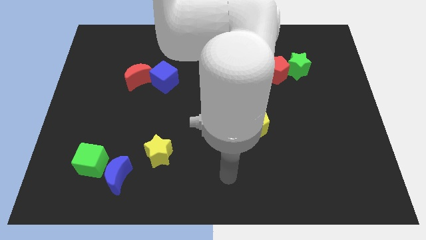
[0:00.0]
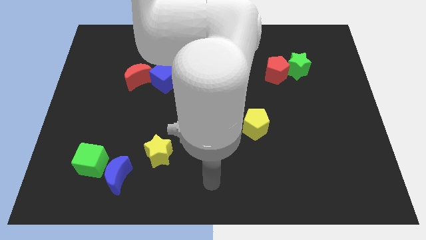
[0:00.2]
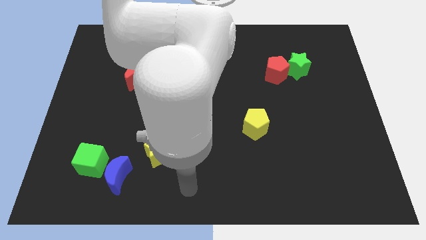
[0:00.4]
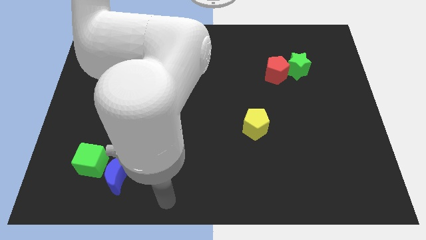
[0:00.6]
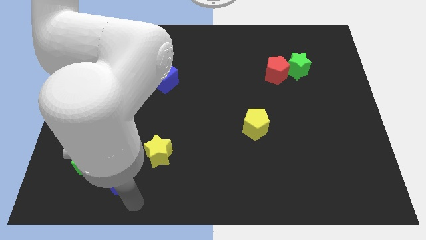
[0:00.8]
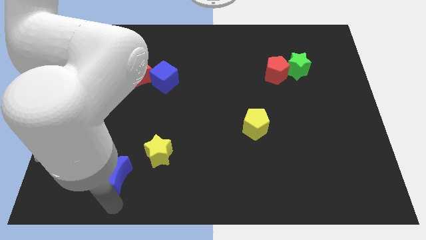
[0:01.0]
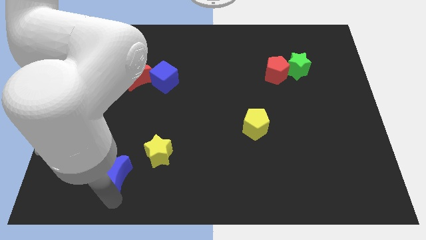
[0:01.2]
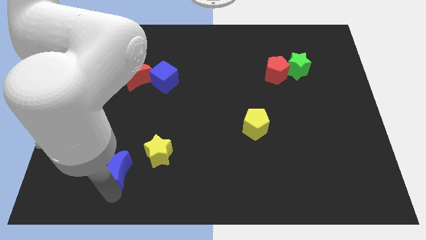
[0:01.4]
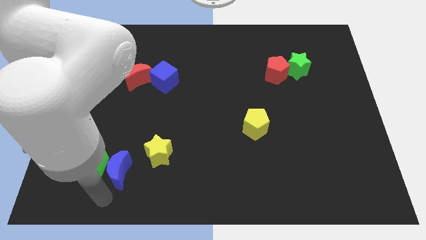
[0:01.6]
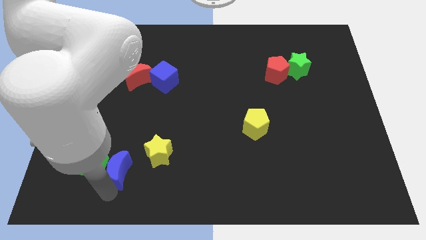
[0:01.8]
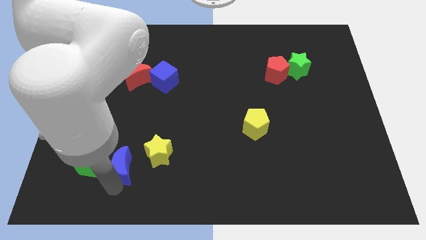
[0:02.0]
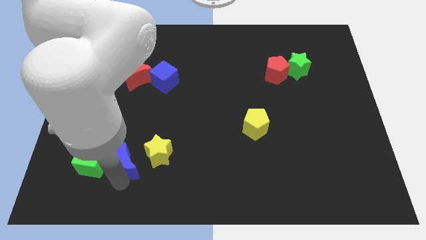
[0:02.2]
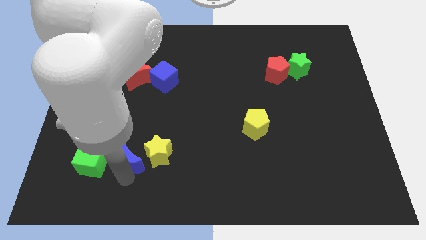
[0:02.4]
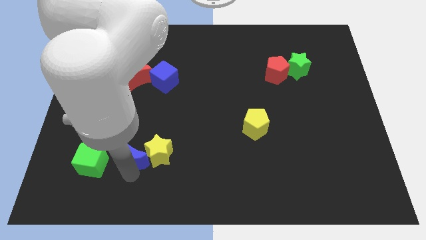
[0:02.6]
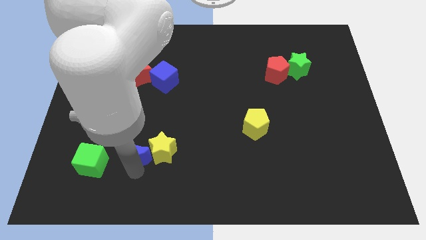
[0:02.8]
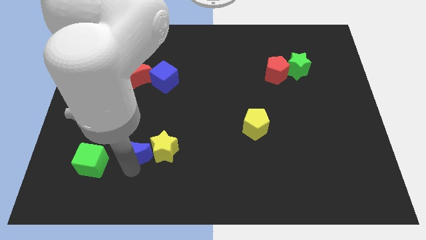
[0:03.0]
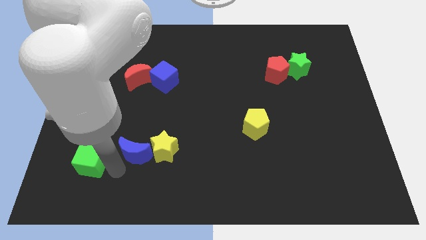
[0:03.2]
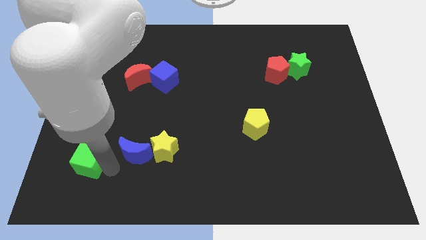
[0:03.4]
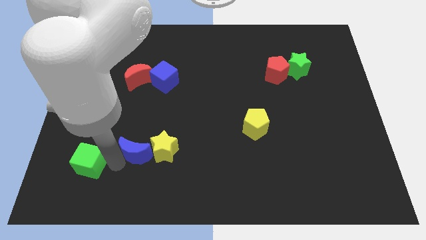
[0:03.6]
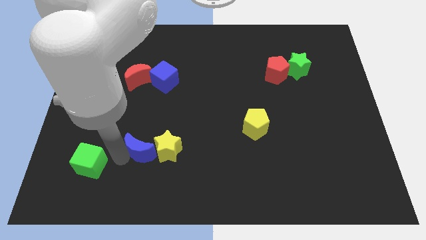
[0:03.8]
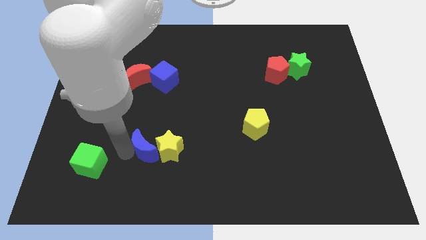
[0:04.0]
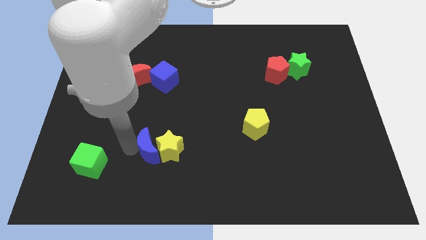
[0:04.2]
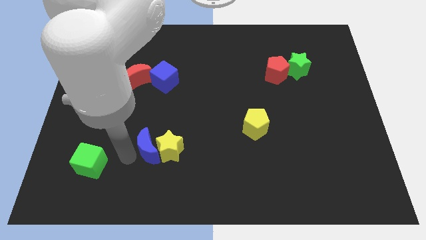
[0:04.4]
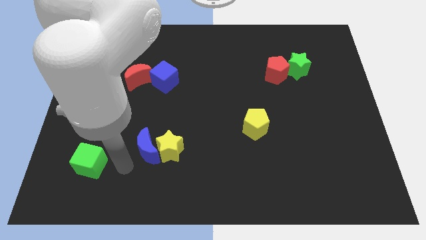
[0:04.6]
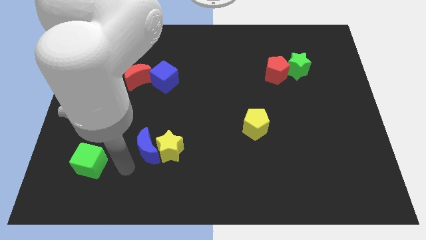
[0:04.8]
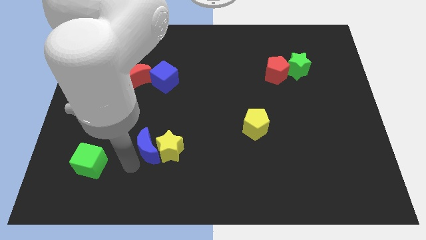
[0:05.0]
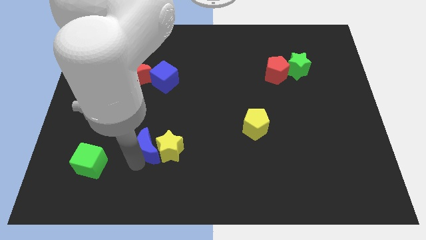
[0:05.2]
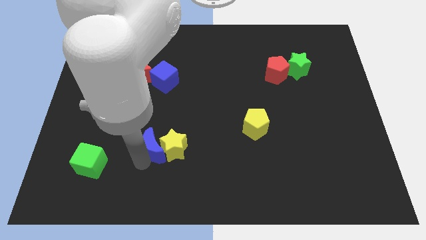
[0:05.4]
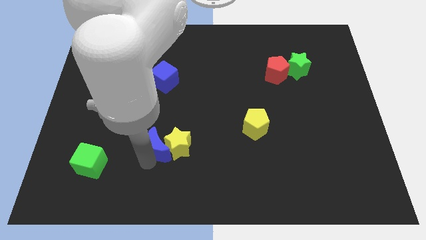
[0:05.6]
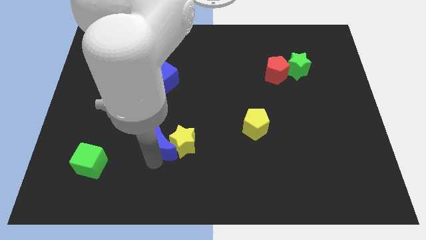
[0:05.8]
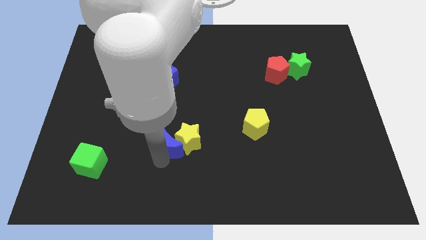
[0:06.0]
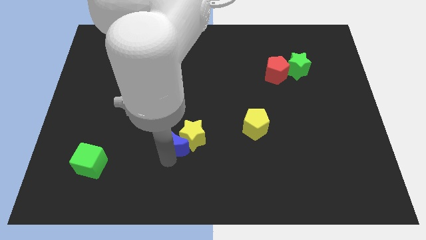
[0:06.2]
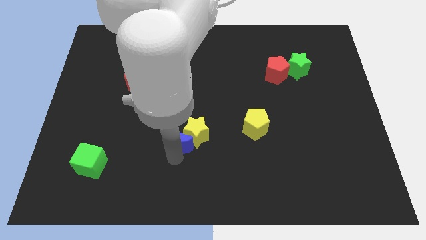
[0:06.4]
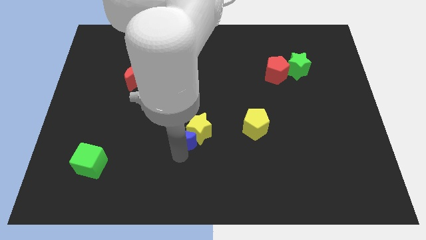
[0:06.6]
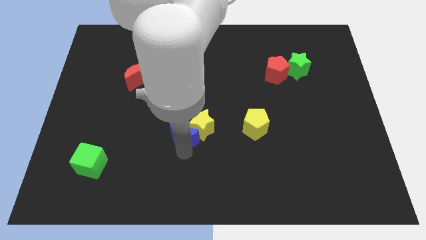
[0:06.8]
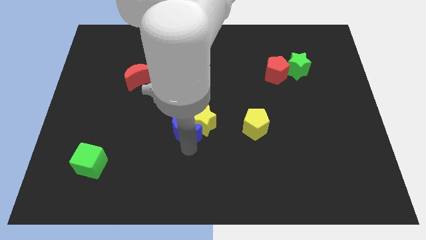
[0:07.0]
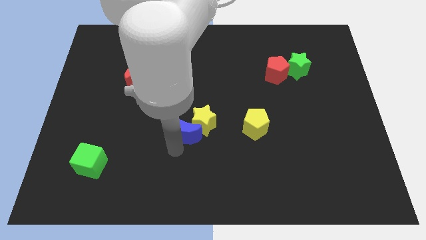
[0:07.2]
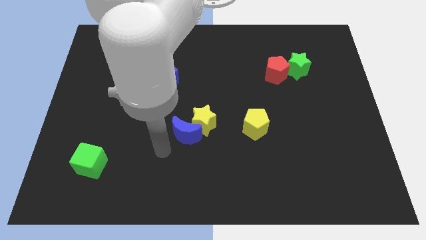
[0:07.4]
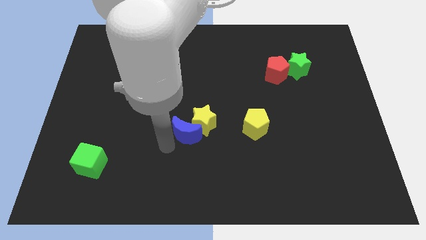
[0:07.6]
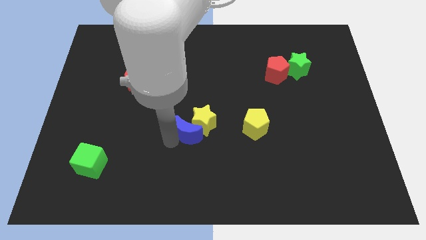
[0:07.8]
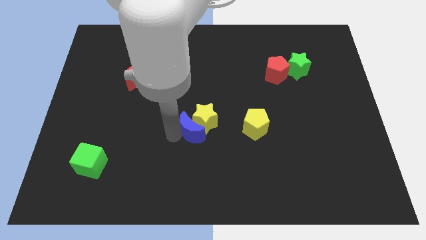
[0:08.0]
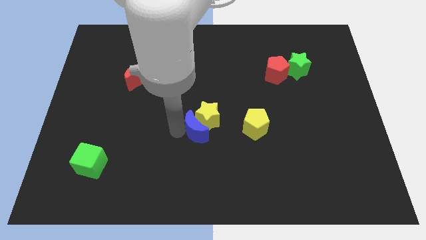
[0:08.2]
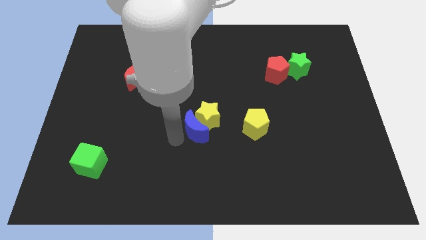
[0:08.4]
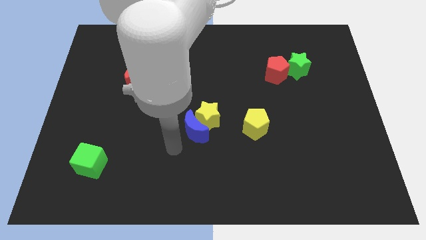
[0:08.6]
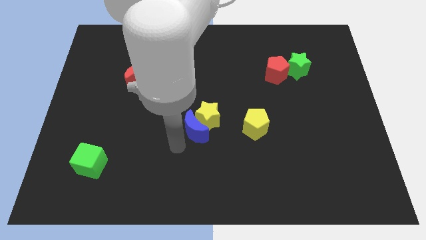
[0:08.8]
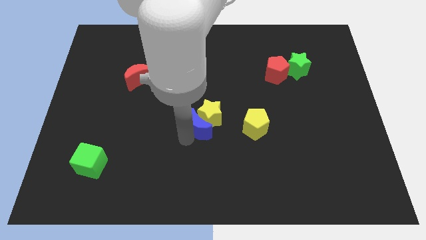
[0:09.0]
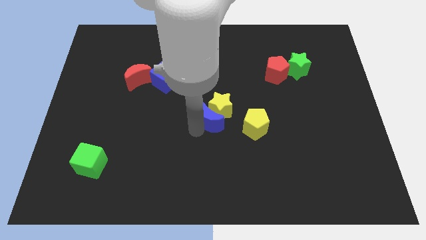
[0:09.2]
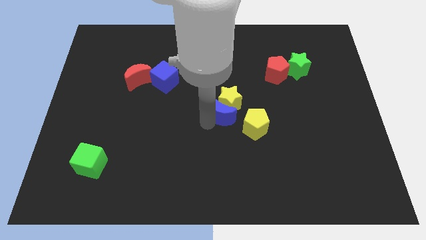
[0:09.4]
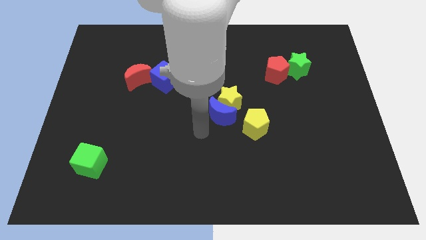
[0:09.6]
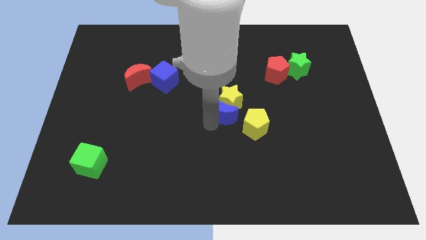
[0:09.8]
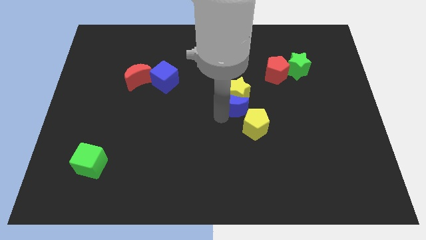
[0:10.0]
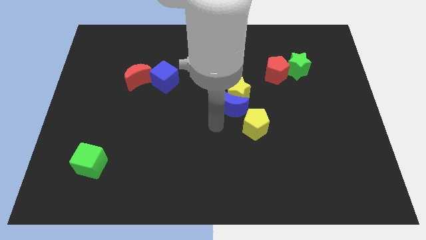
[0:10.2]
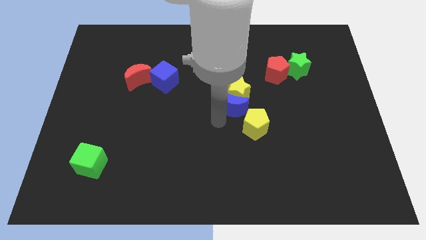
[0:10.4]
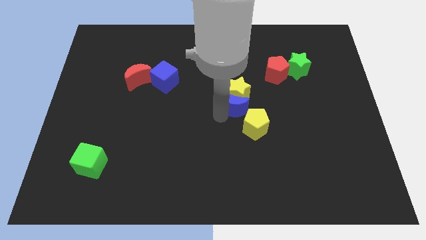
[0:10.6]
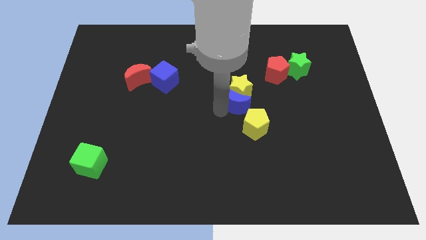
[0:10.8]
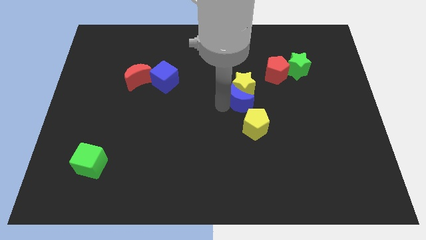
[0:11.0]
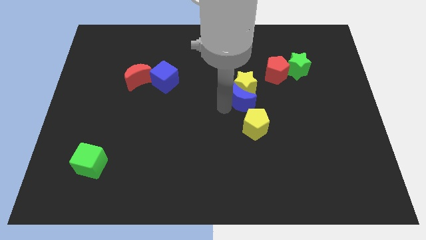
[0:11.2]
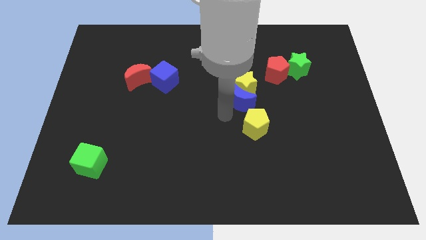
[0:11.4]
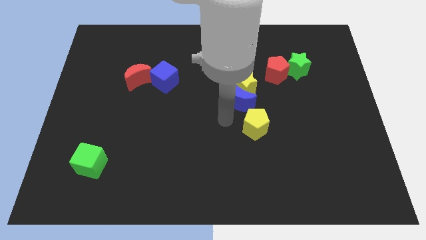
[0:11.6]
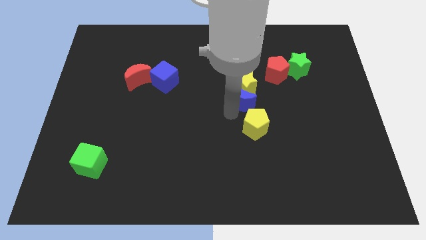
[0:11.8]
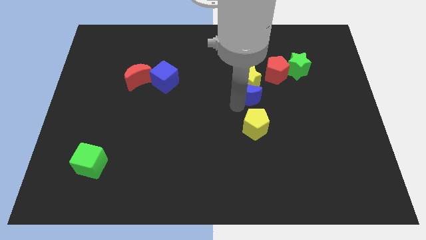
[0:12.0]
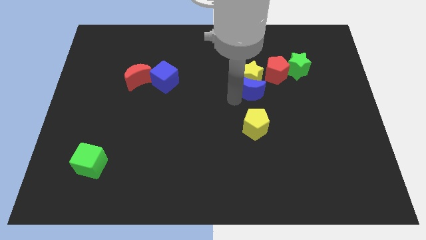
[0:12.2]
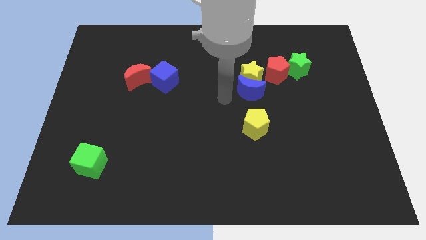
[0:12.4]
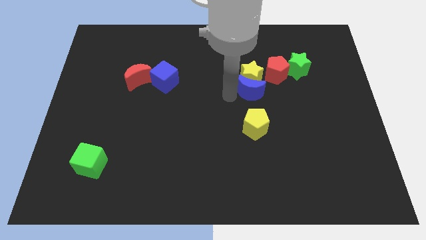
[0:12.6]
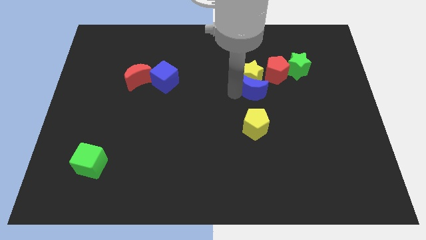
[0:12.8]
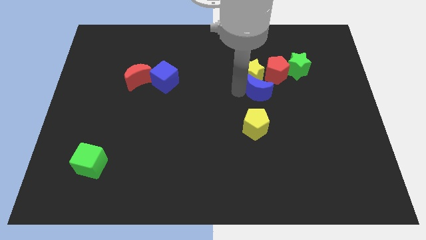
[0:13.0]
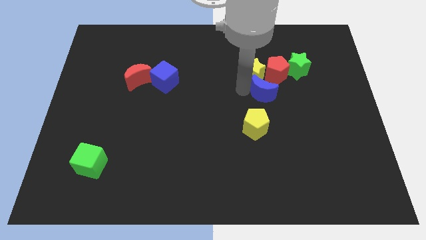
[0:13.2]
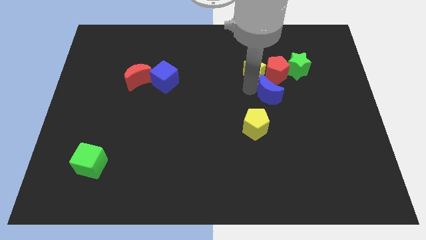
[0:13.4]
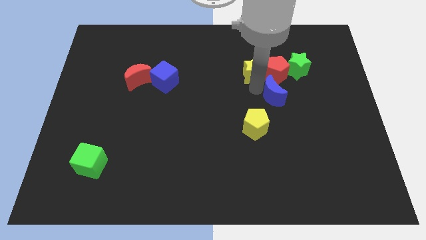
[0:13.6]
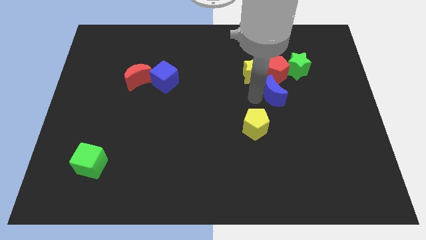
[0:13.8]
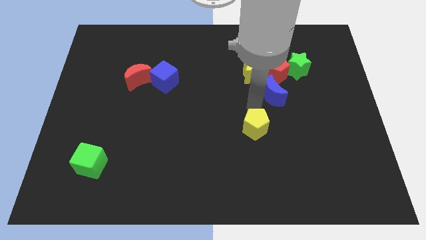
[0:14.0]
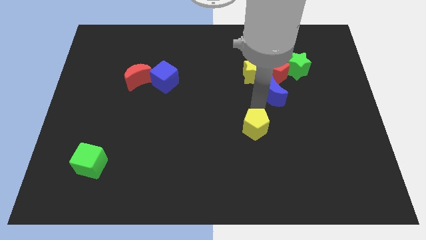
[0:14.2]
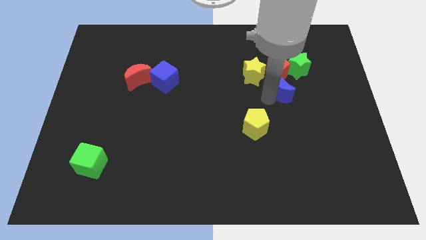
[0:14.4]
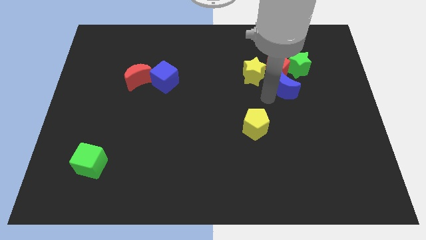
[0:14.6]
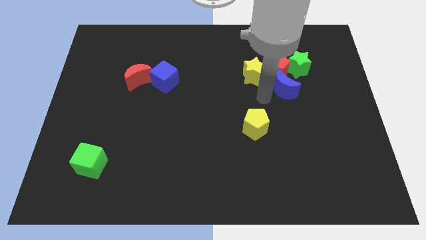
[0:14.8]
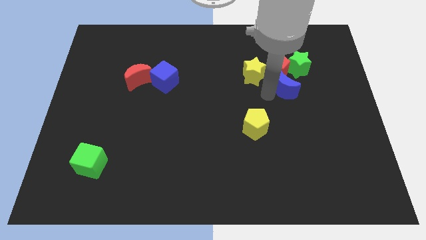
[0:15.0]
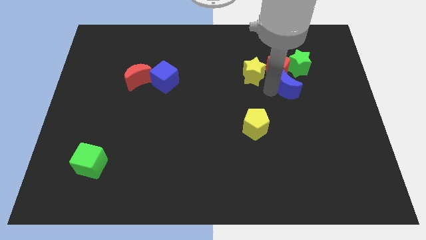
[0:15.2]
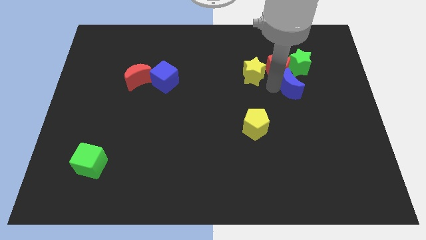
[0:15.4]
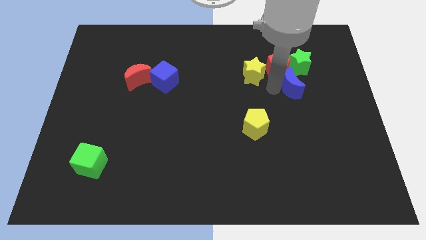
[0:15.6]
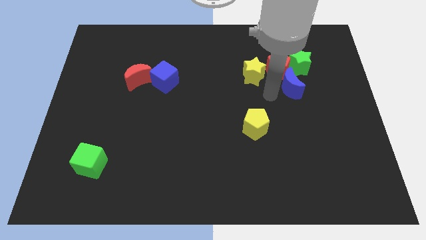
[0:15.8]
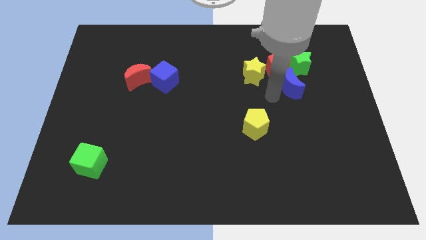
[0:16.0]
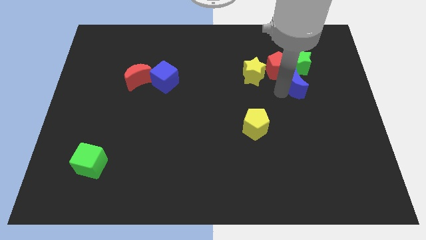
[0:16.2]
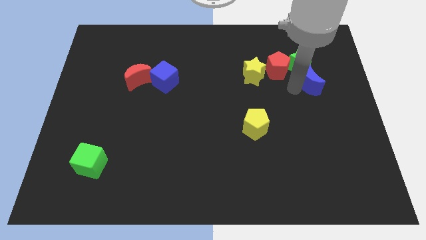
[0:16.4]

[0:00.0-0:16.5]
move the blue moon just right of the red pentagon
